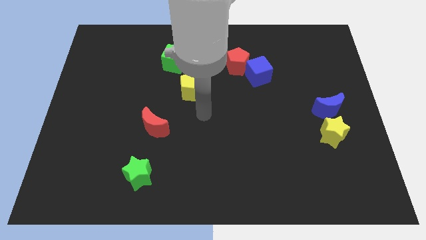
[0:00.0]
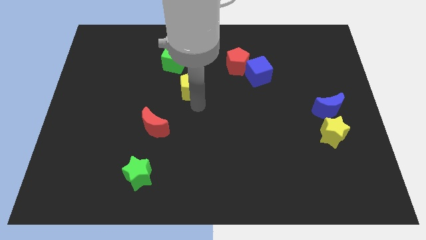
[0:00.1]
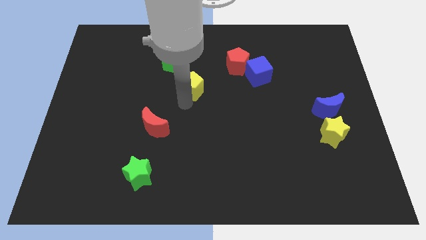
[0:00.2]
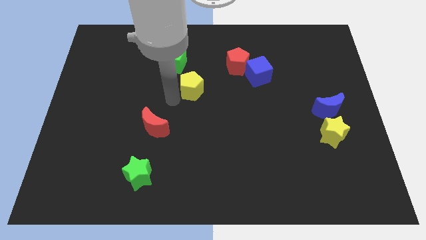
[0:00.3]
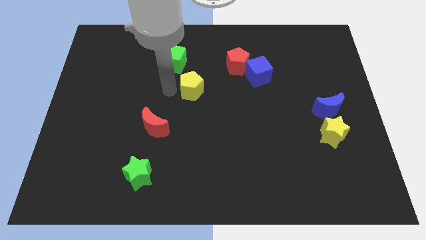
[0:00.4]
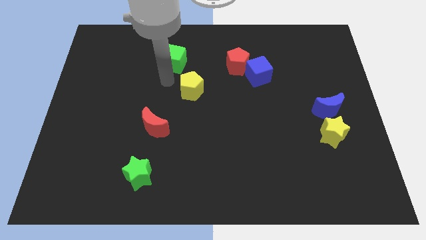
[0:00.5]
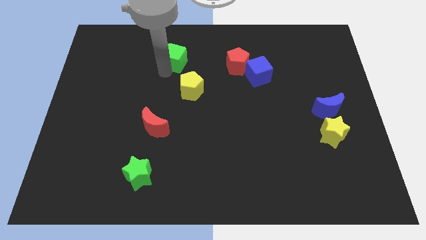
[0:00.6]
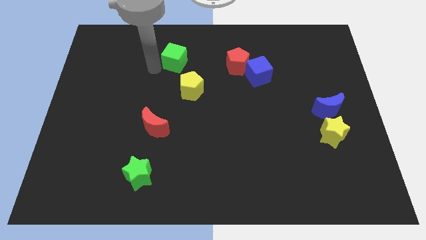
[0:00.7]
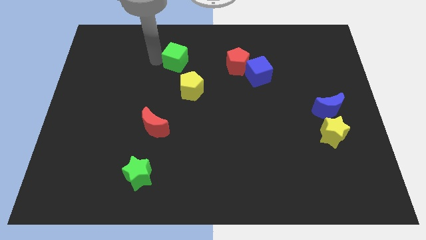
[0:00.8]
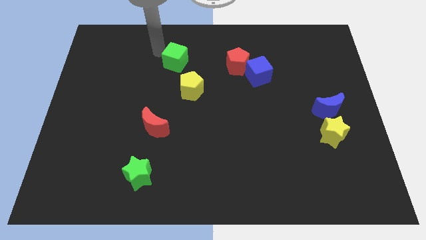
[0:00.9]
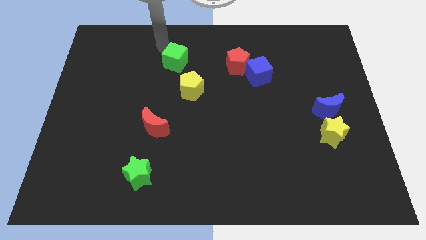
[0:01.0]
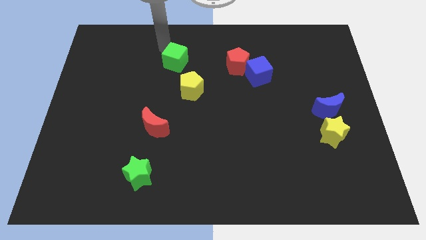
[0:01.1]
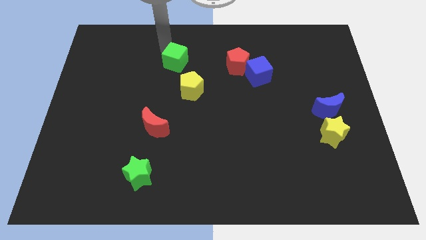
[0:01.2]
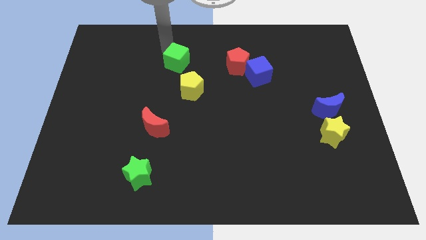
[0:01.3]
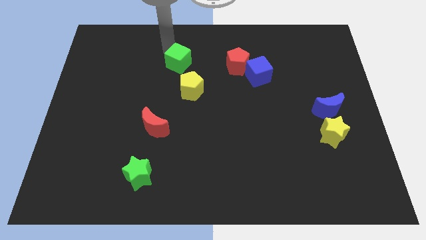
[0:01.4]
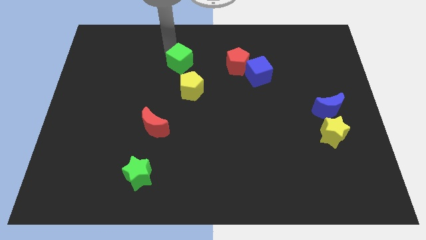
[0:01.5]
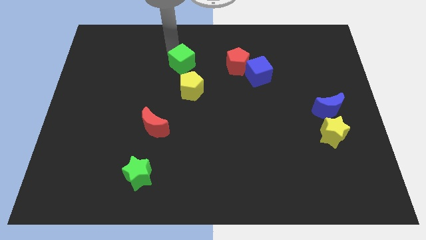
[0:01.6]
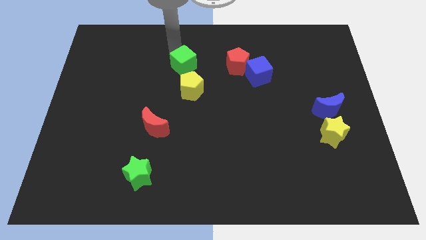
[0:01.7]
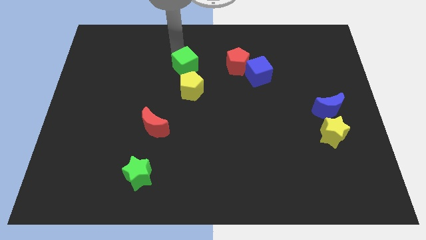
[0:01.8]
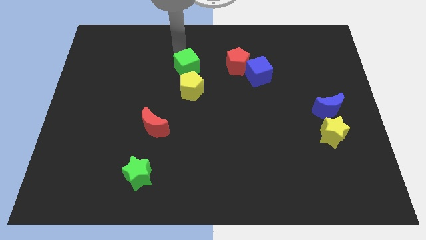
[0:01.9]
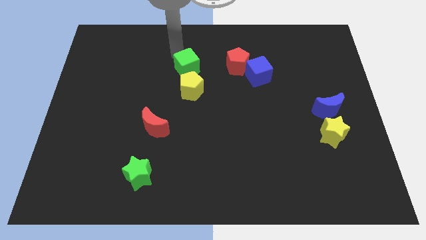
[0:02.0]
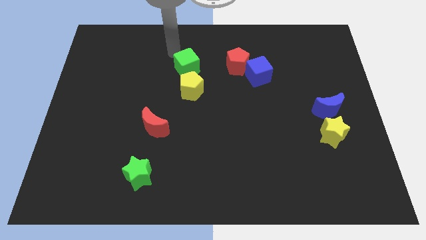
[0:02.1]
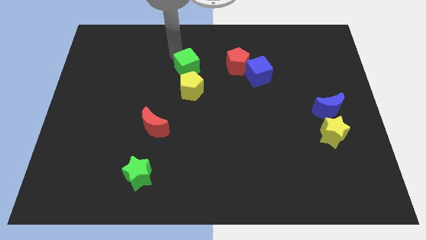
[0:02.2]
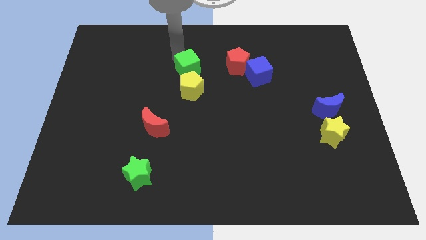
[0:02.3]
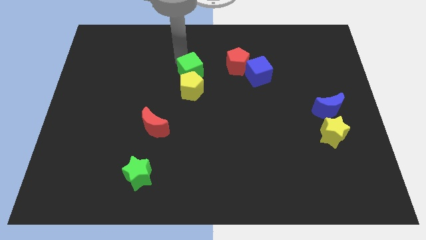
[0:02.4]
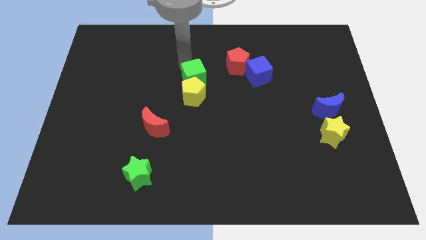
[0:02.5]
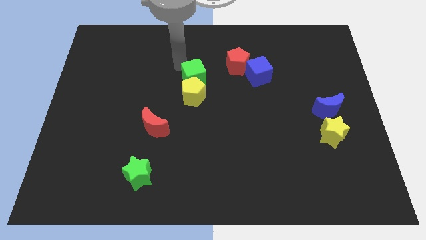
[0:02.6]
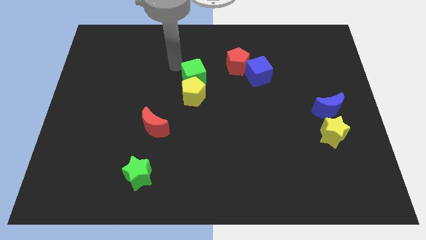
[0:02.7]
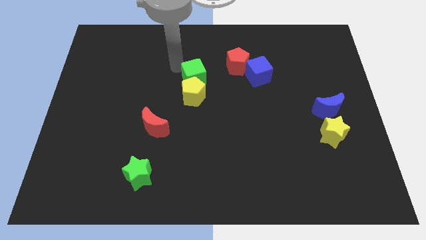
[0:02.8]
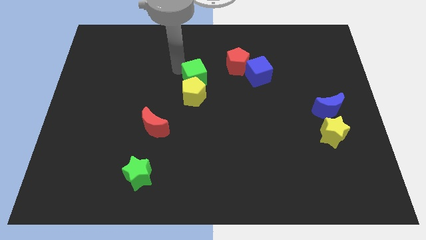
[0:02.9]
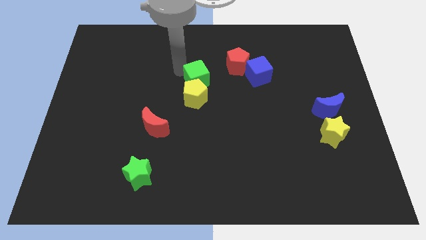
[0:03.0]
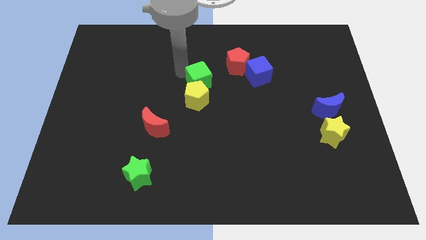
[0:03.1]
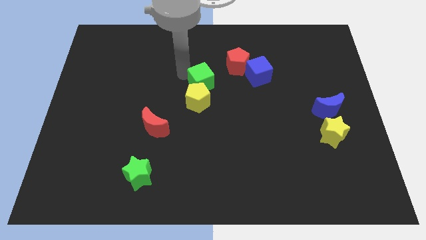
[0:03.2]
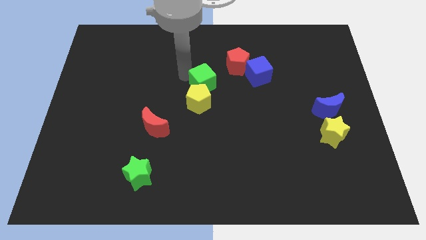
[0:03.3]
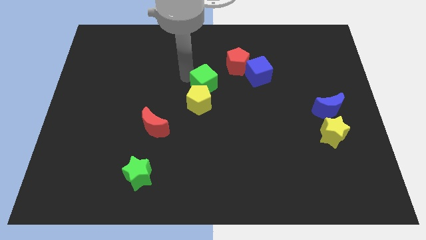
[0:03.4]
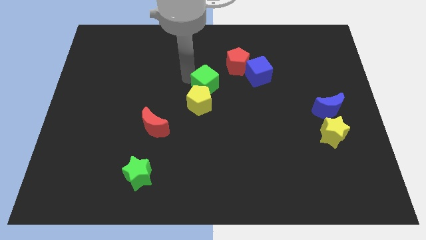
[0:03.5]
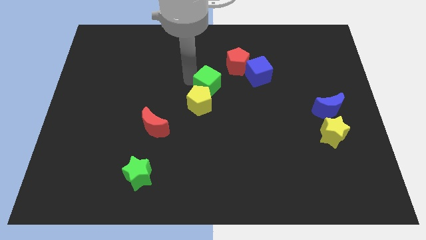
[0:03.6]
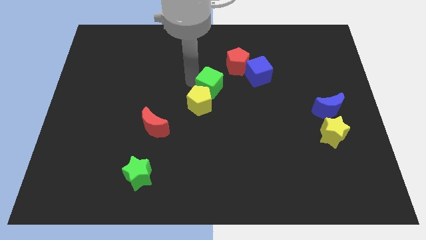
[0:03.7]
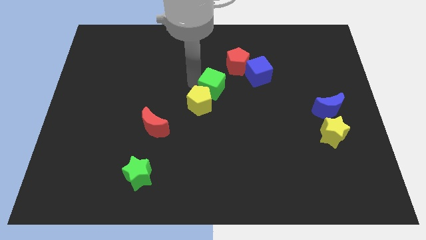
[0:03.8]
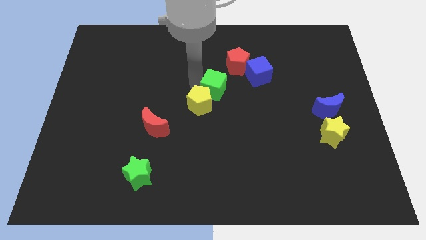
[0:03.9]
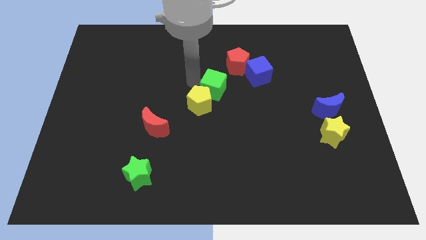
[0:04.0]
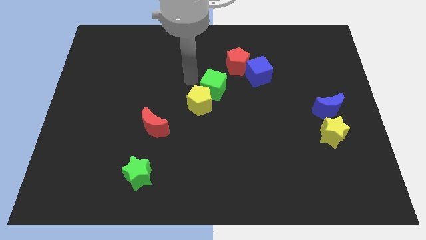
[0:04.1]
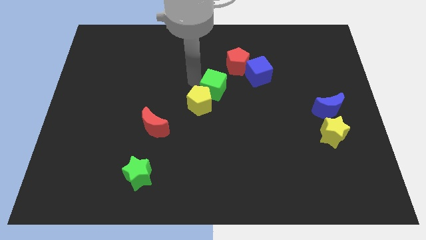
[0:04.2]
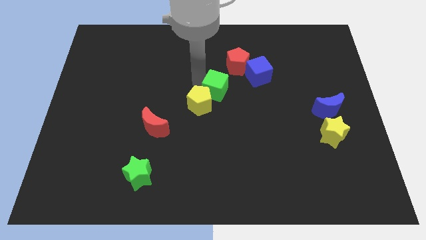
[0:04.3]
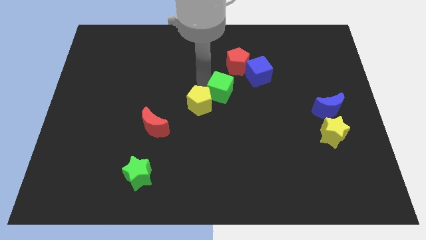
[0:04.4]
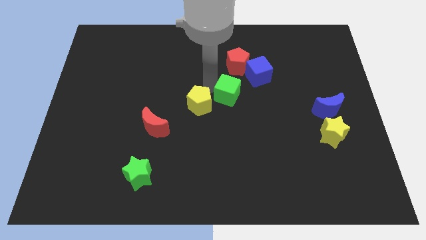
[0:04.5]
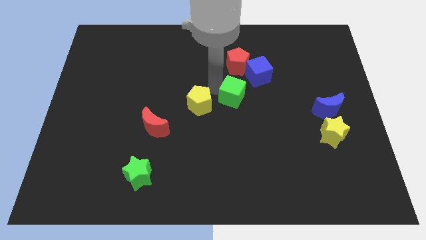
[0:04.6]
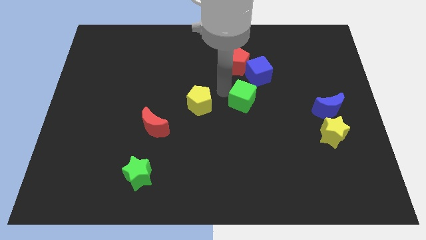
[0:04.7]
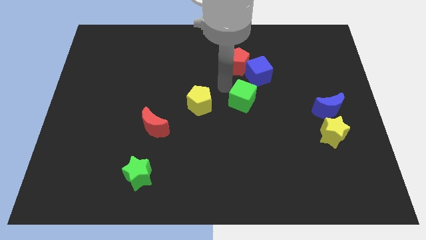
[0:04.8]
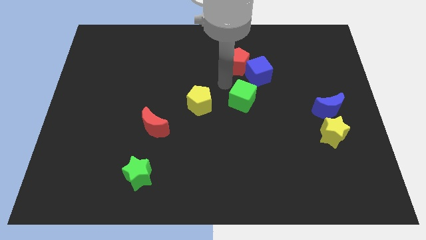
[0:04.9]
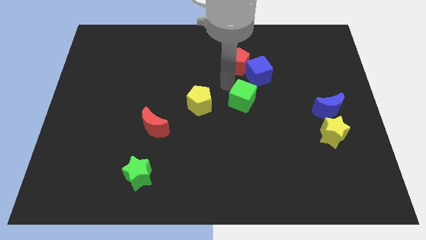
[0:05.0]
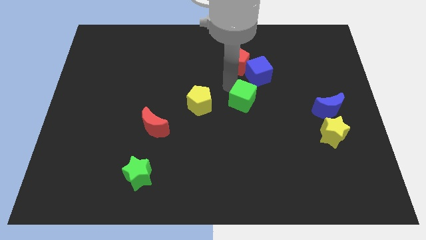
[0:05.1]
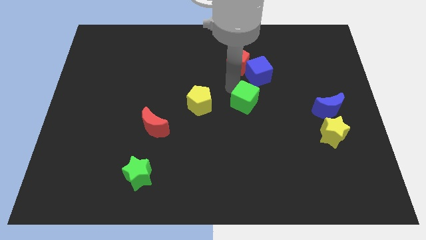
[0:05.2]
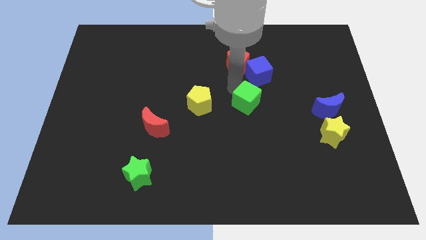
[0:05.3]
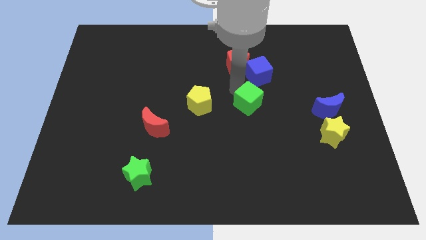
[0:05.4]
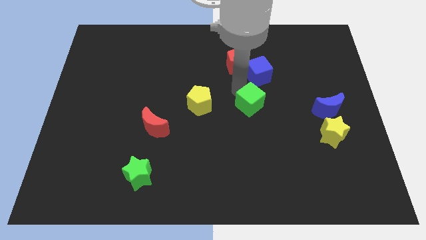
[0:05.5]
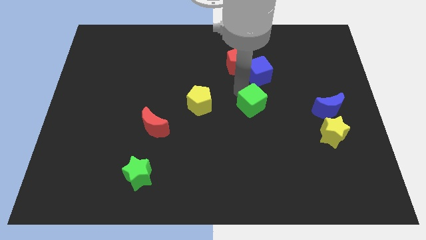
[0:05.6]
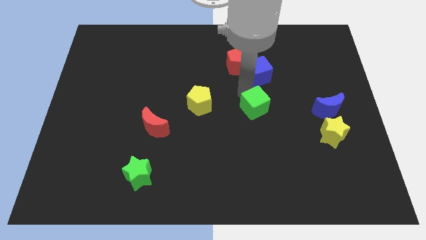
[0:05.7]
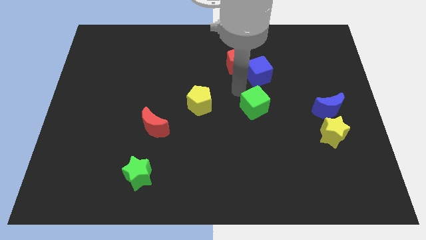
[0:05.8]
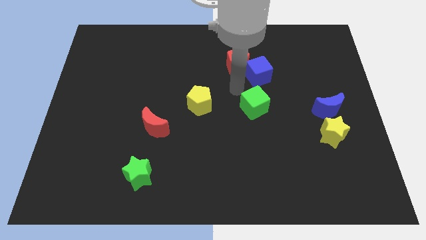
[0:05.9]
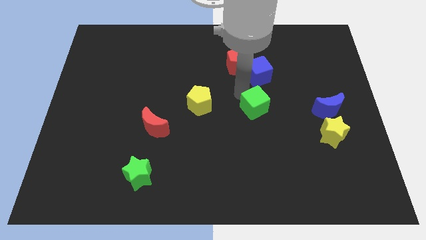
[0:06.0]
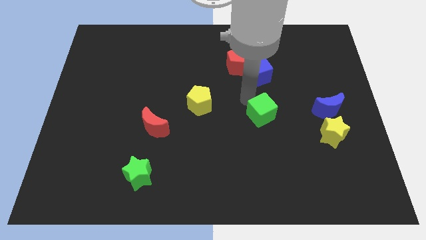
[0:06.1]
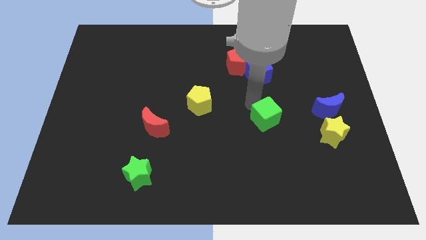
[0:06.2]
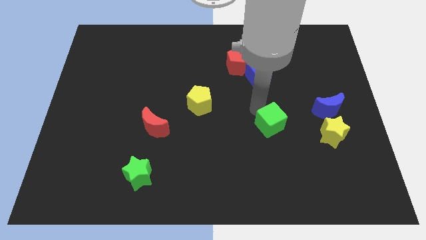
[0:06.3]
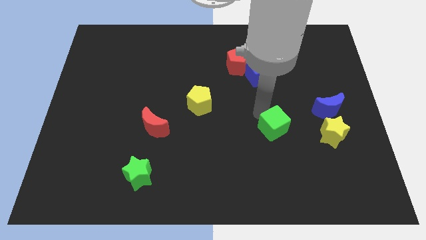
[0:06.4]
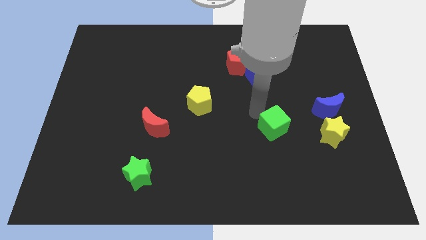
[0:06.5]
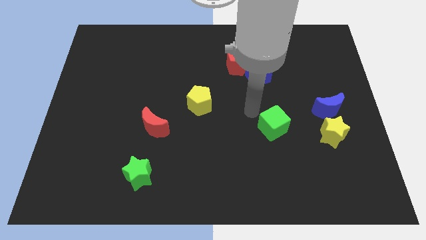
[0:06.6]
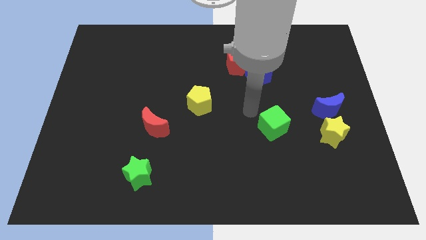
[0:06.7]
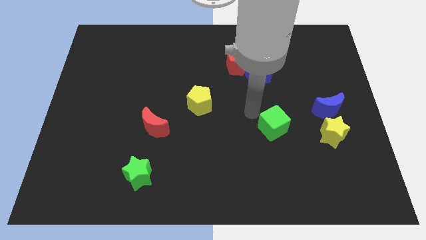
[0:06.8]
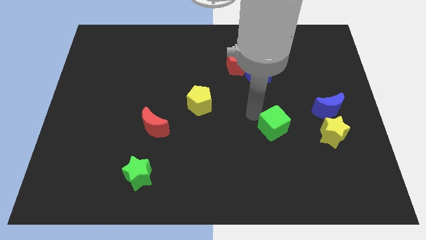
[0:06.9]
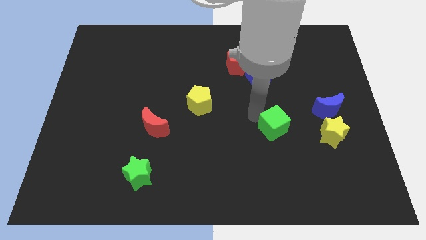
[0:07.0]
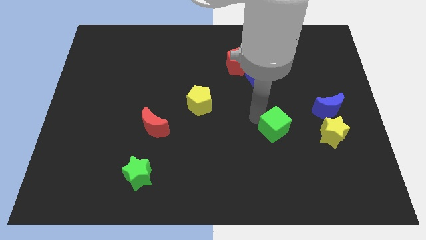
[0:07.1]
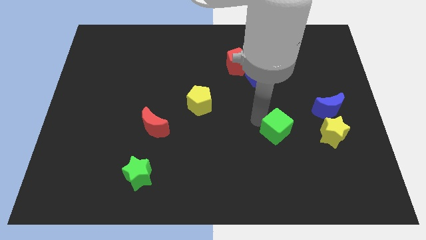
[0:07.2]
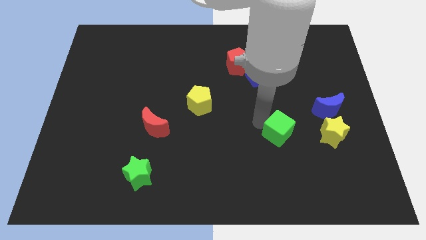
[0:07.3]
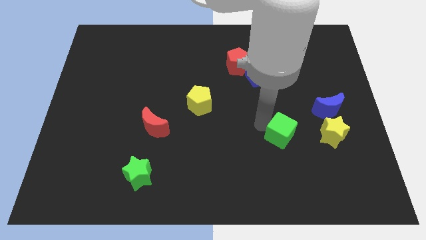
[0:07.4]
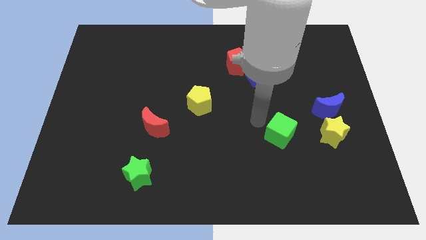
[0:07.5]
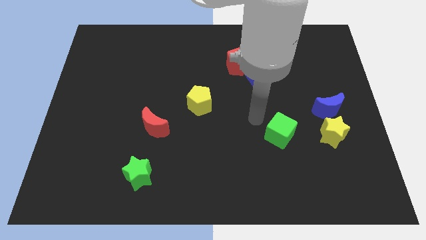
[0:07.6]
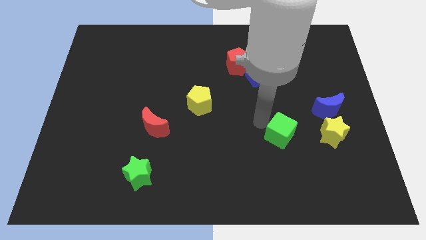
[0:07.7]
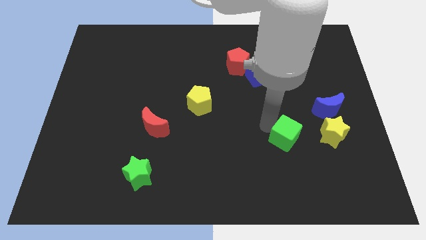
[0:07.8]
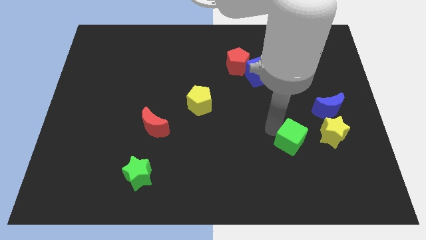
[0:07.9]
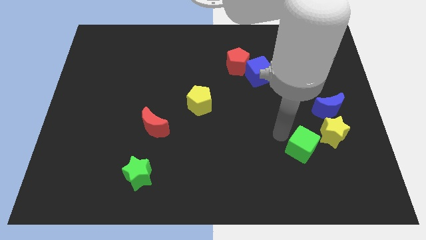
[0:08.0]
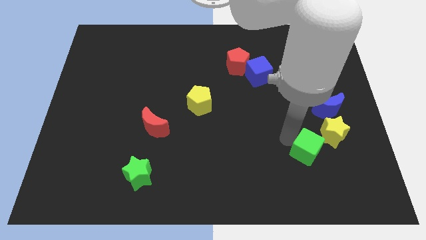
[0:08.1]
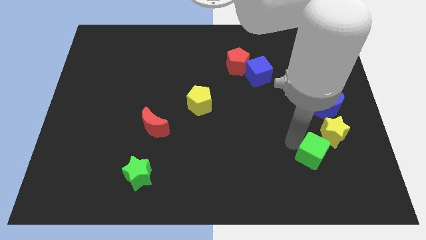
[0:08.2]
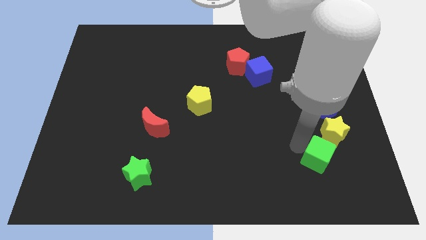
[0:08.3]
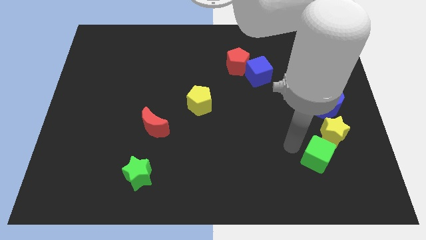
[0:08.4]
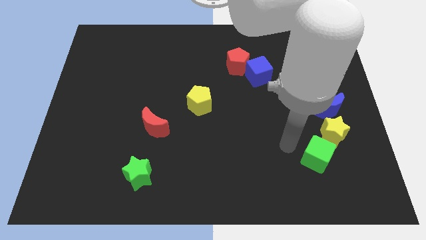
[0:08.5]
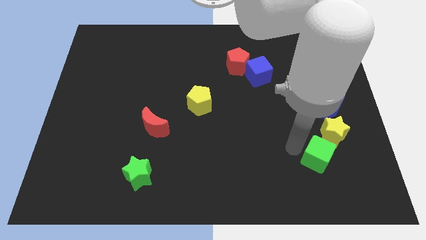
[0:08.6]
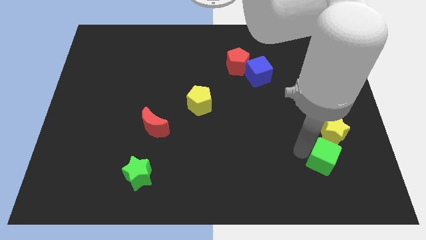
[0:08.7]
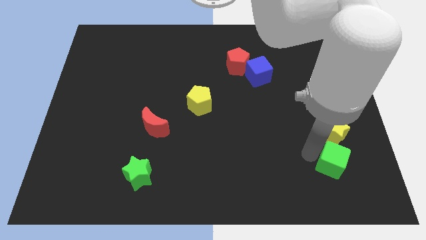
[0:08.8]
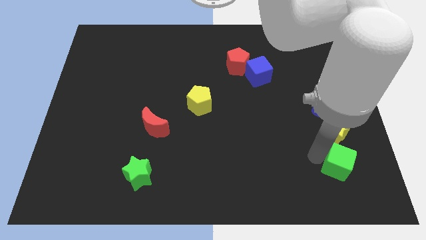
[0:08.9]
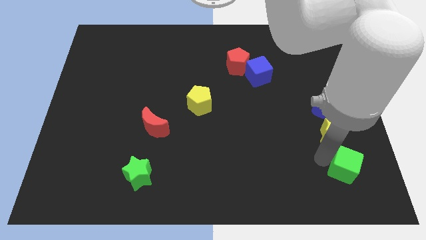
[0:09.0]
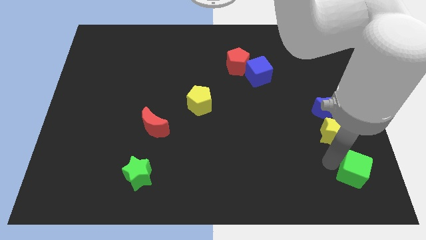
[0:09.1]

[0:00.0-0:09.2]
push the green cube to the bottom right corner
